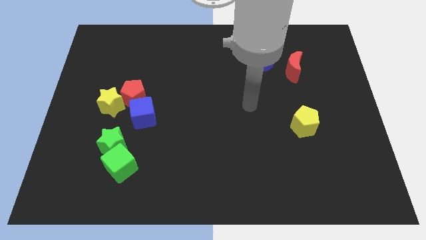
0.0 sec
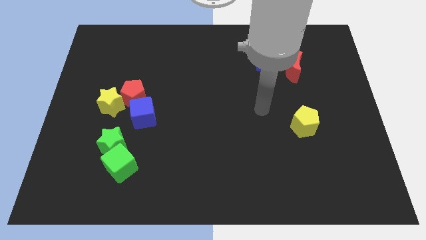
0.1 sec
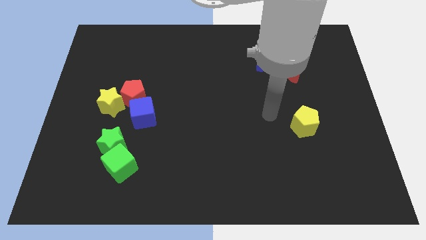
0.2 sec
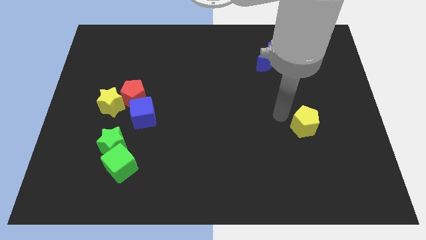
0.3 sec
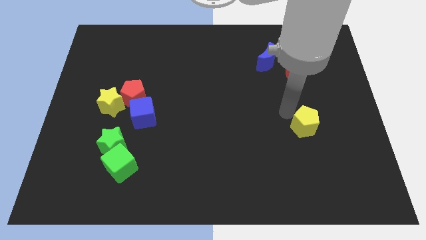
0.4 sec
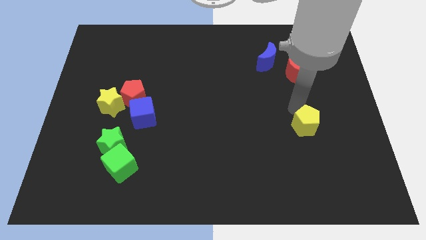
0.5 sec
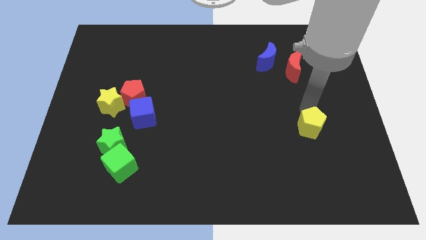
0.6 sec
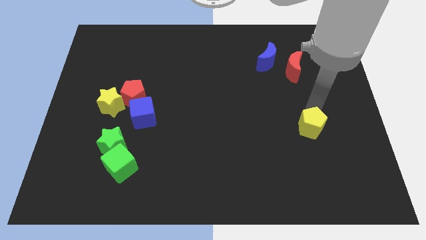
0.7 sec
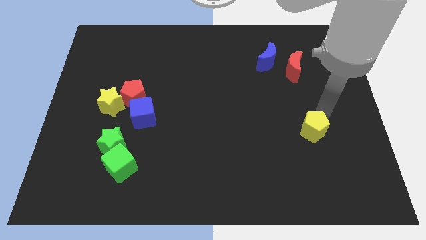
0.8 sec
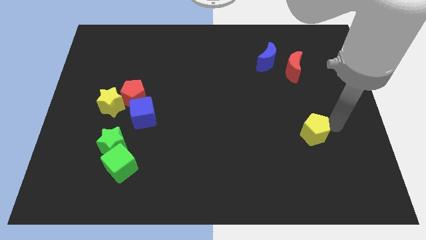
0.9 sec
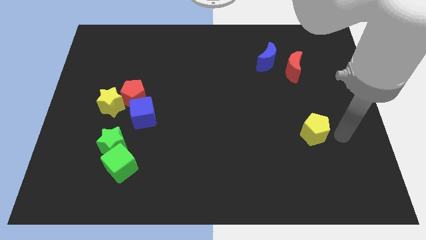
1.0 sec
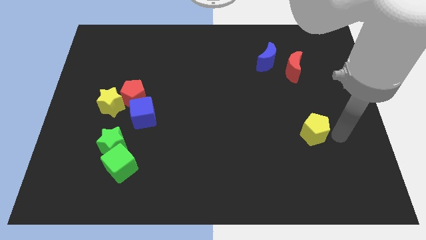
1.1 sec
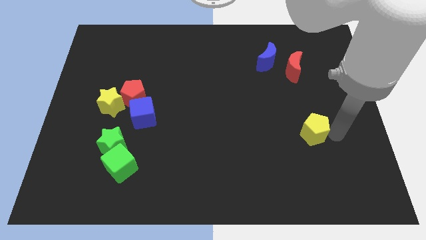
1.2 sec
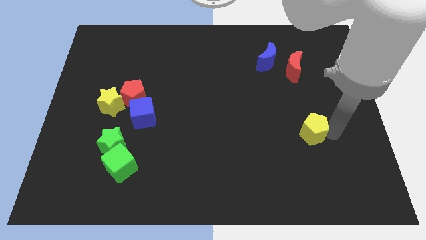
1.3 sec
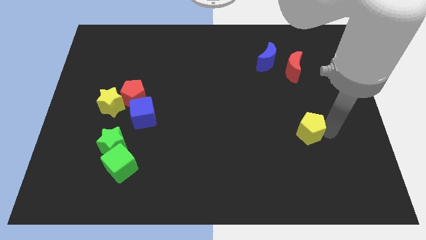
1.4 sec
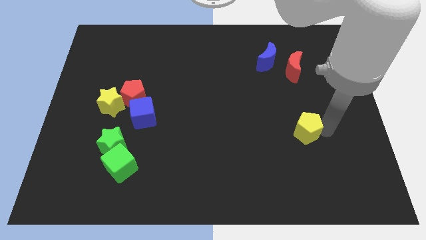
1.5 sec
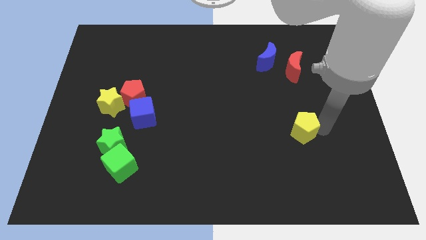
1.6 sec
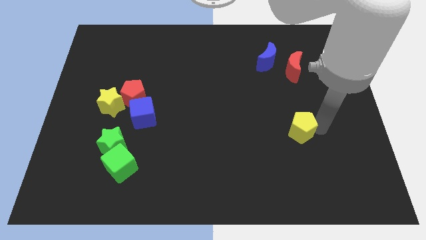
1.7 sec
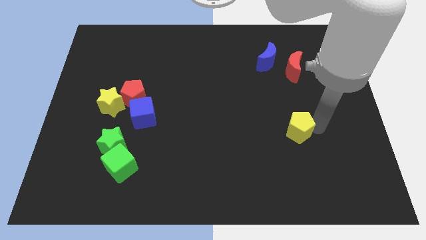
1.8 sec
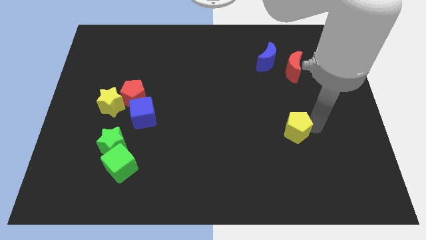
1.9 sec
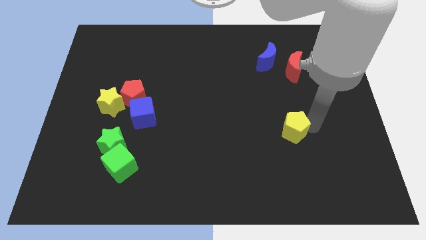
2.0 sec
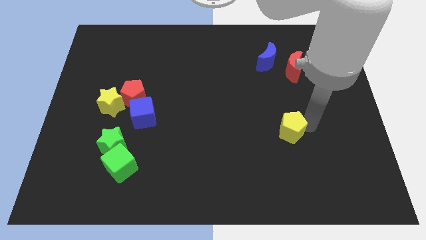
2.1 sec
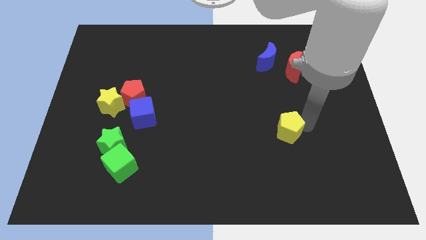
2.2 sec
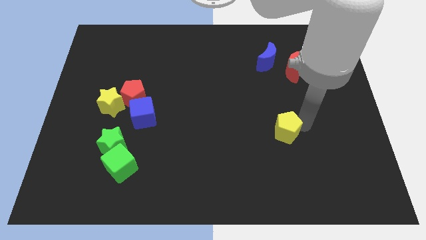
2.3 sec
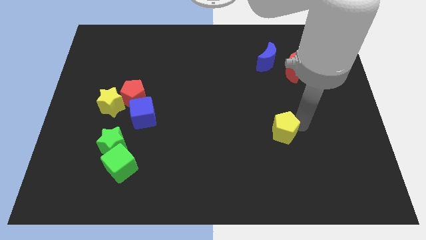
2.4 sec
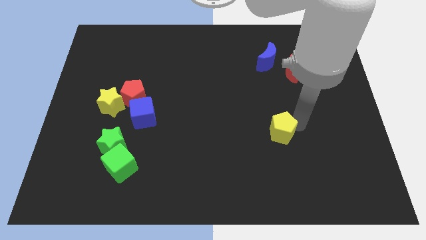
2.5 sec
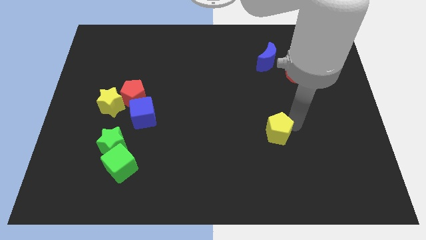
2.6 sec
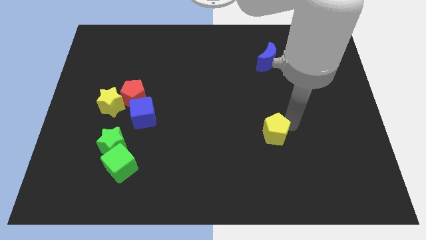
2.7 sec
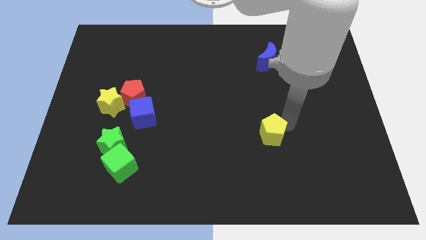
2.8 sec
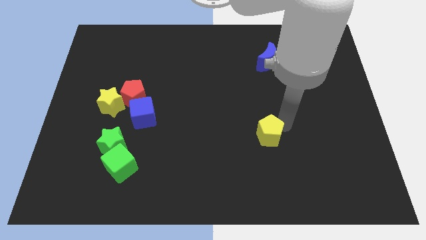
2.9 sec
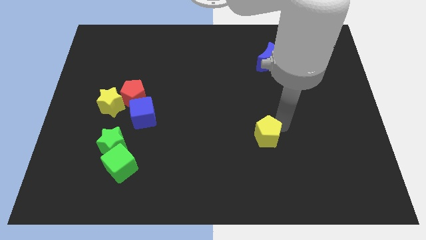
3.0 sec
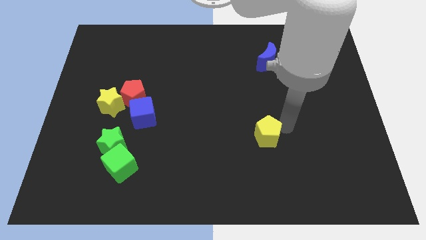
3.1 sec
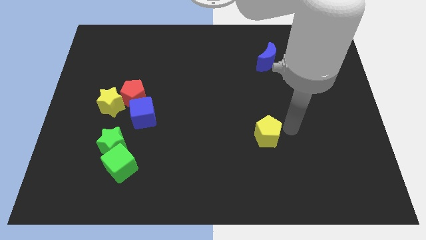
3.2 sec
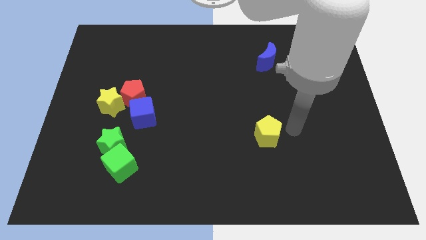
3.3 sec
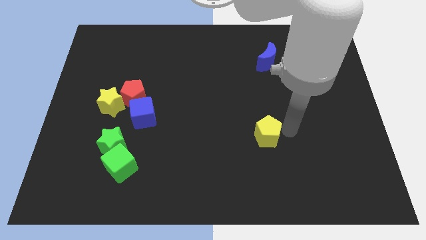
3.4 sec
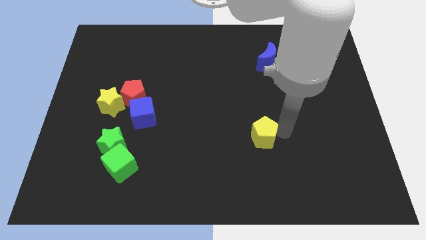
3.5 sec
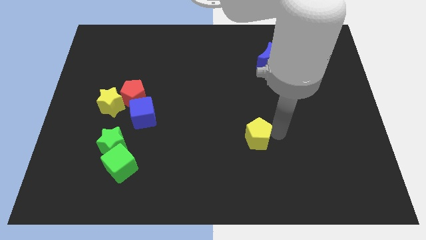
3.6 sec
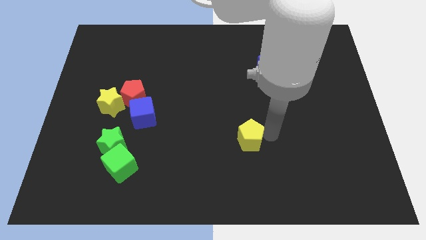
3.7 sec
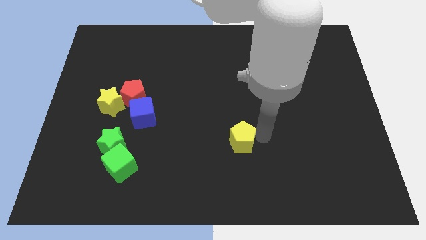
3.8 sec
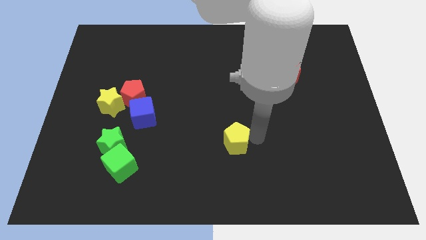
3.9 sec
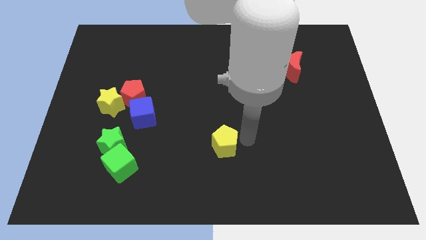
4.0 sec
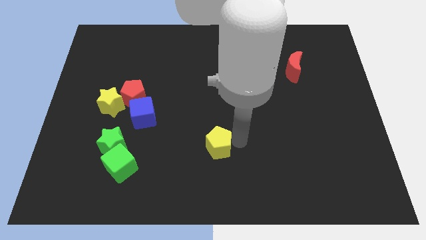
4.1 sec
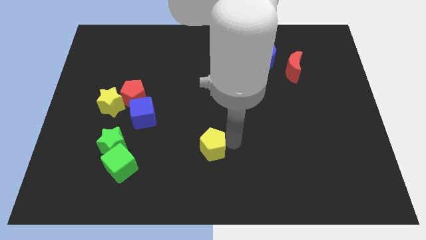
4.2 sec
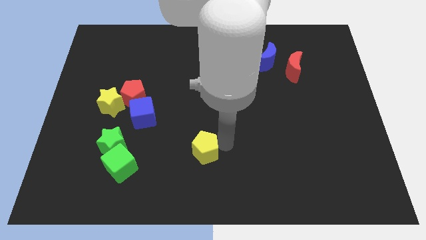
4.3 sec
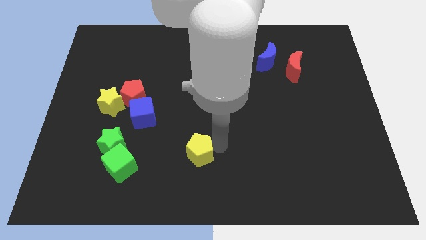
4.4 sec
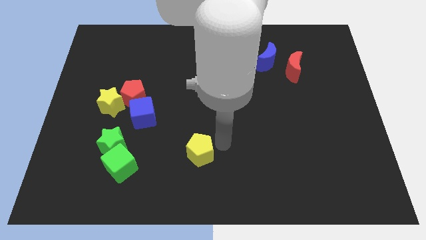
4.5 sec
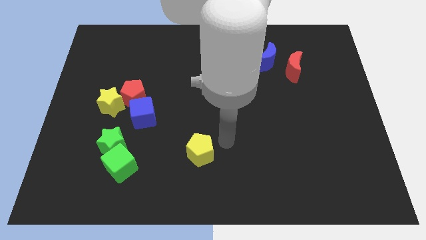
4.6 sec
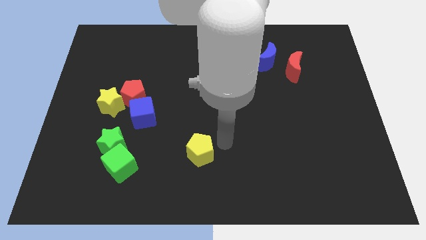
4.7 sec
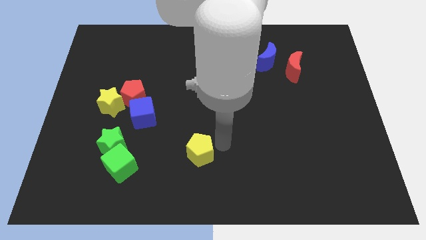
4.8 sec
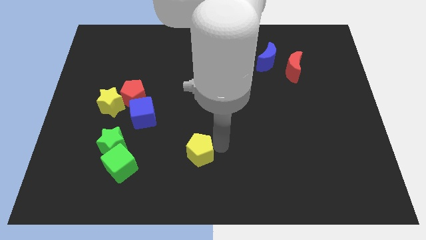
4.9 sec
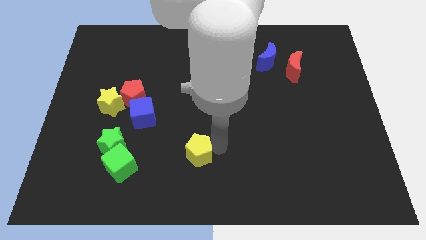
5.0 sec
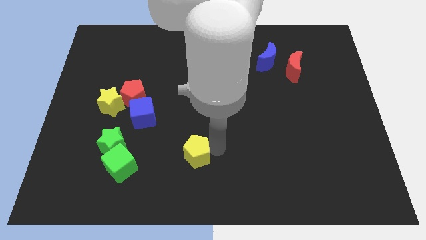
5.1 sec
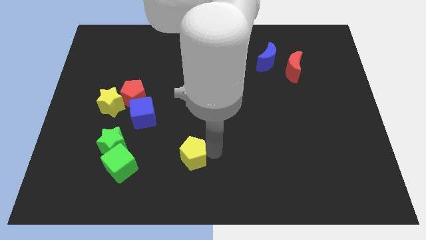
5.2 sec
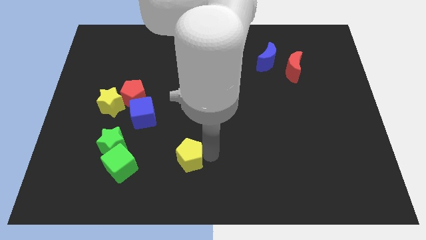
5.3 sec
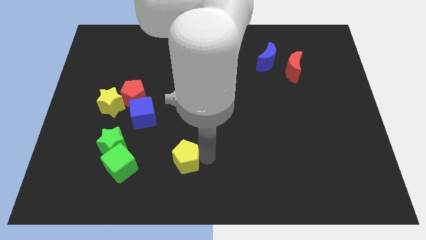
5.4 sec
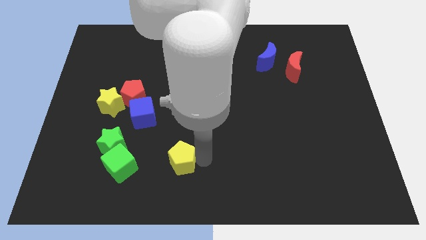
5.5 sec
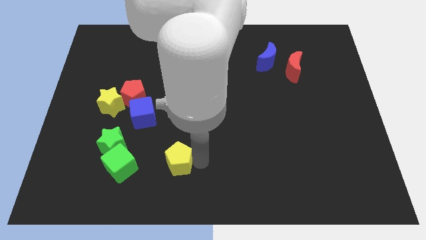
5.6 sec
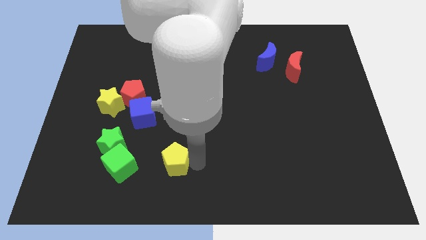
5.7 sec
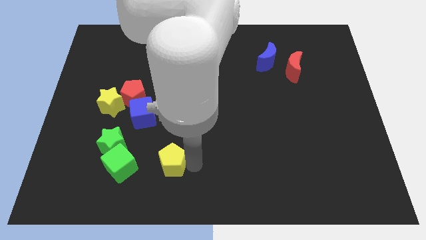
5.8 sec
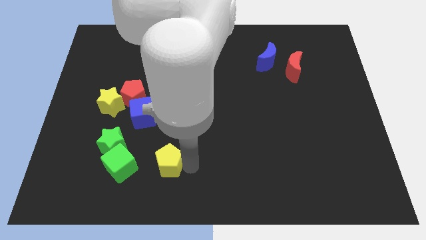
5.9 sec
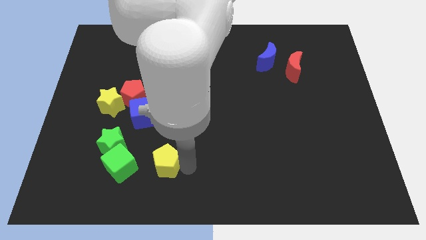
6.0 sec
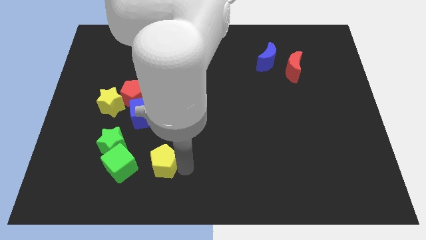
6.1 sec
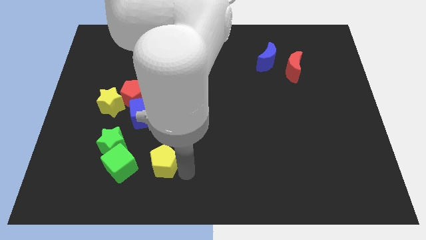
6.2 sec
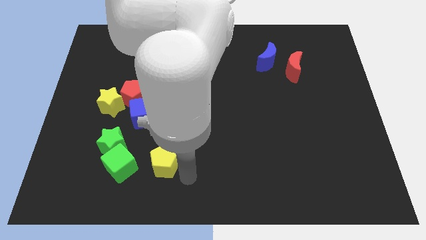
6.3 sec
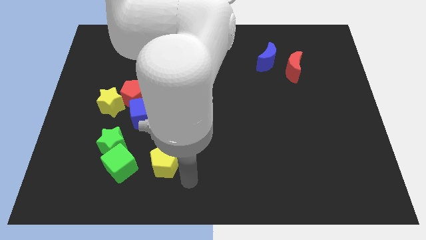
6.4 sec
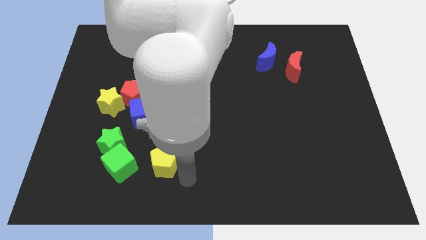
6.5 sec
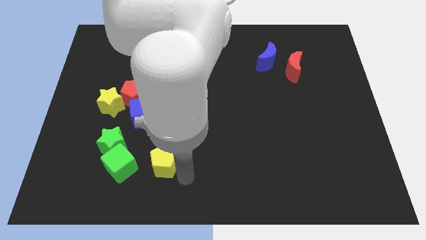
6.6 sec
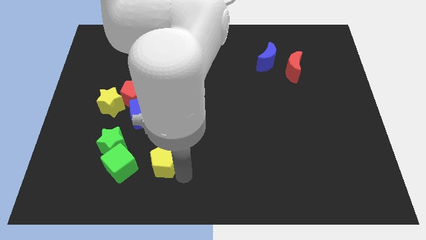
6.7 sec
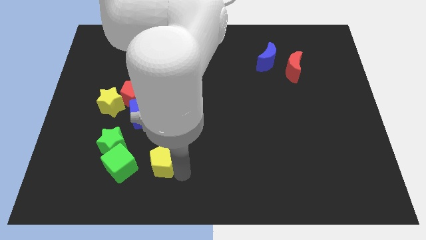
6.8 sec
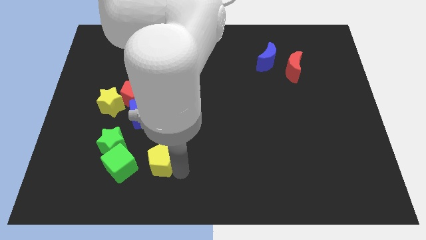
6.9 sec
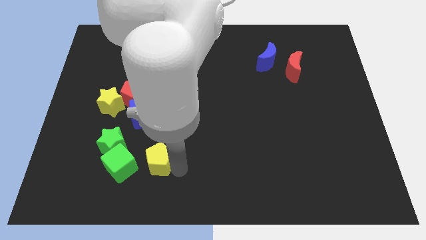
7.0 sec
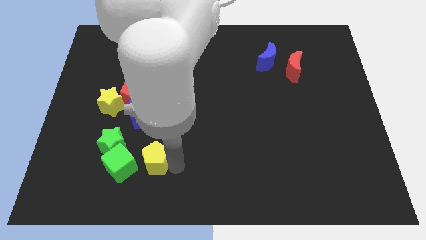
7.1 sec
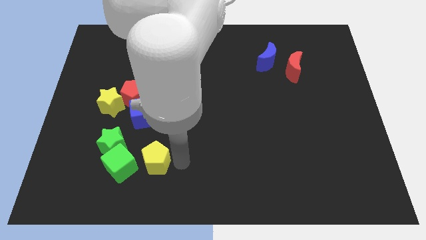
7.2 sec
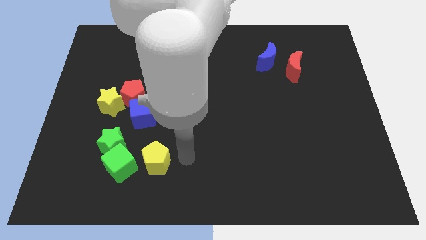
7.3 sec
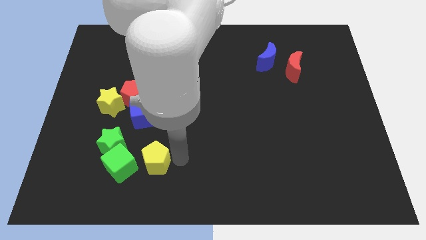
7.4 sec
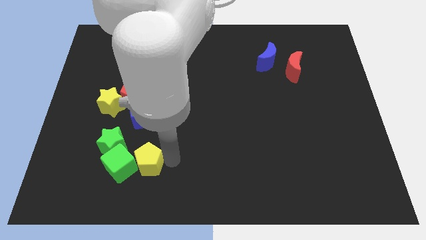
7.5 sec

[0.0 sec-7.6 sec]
push the yellow pentagon next to the green cube
